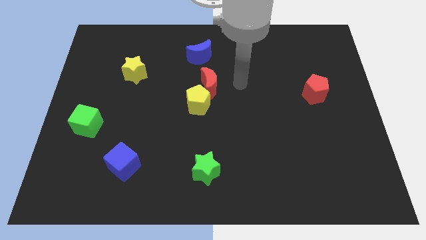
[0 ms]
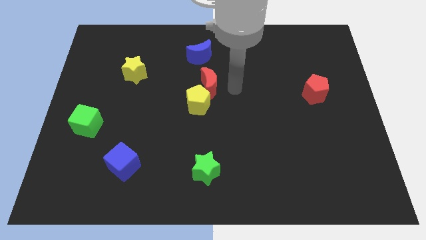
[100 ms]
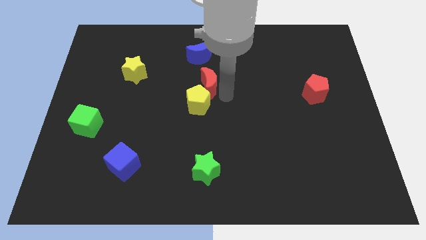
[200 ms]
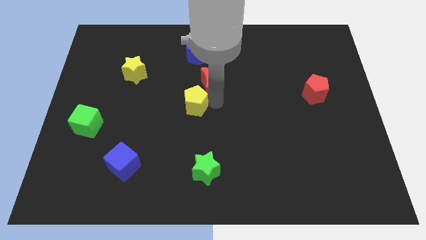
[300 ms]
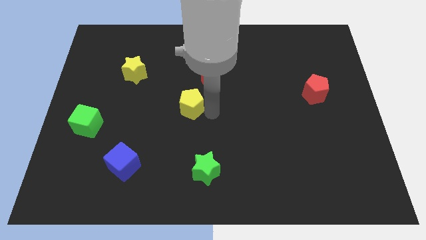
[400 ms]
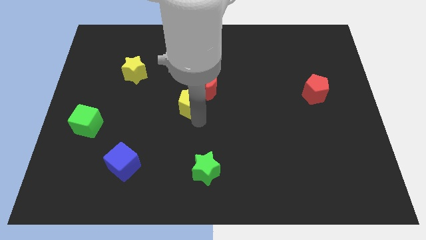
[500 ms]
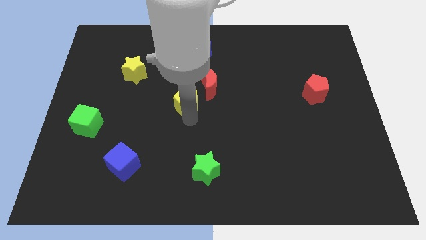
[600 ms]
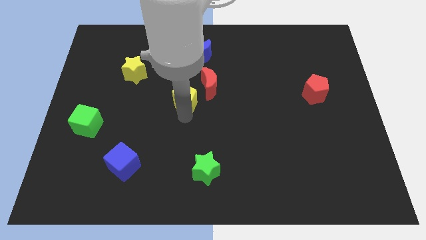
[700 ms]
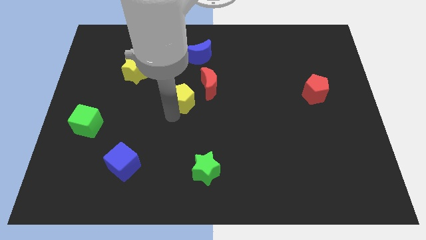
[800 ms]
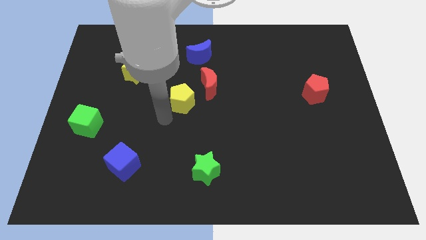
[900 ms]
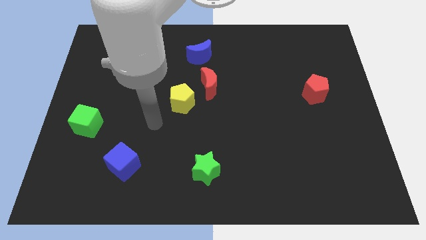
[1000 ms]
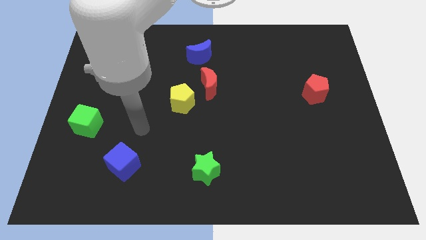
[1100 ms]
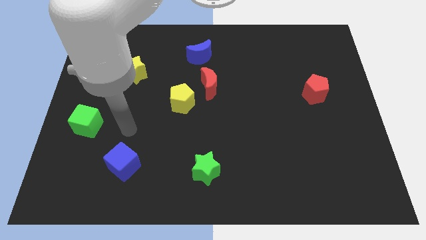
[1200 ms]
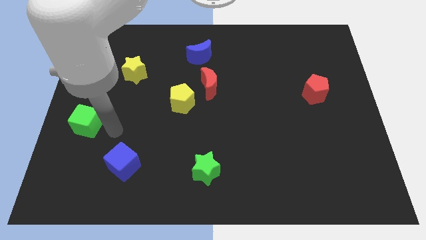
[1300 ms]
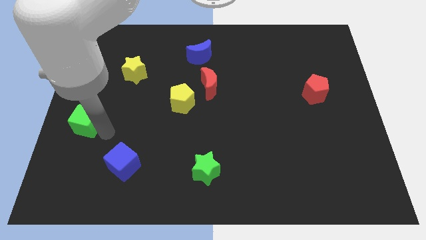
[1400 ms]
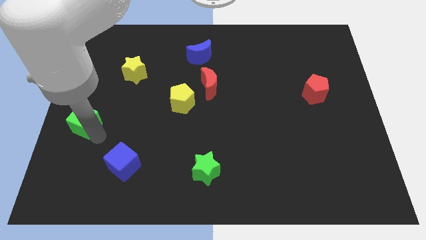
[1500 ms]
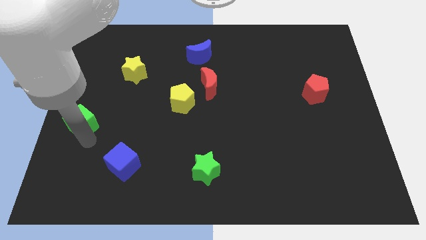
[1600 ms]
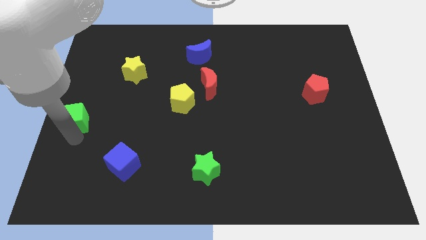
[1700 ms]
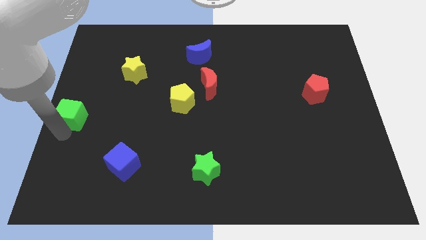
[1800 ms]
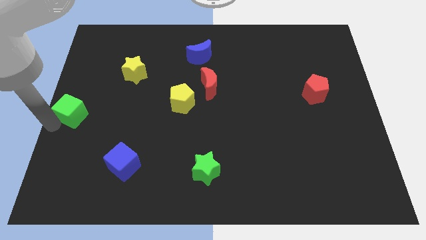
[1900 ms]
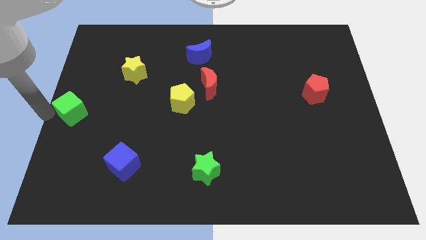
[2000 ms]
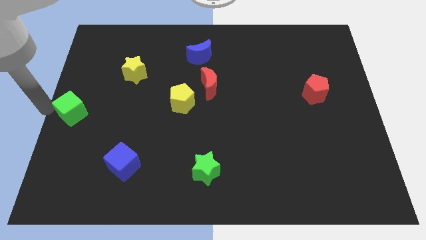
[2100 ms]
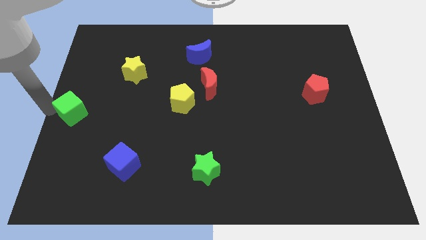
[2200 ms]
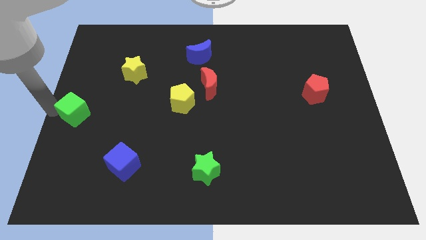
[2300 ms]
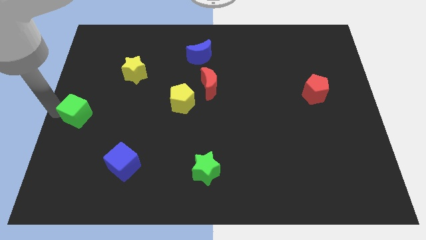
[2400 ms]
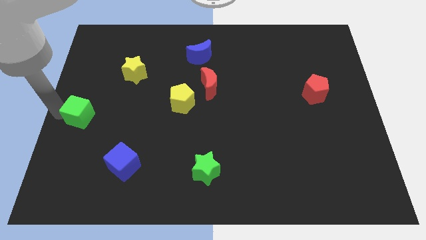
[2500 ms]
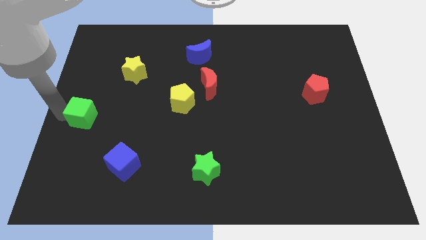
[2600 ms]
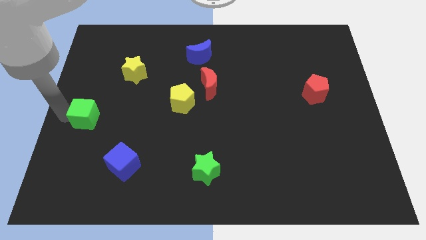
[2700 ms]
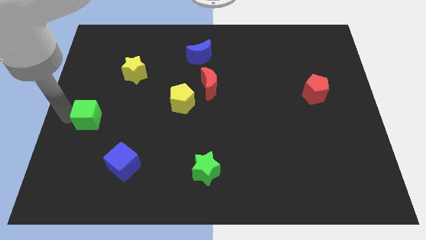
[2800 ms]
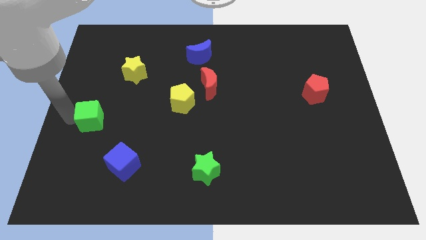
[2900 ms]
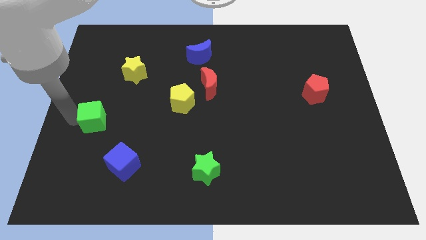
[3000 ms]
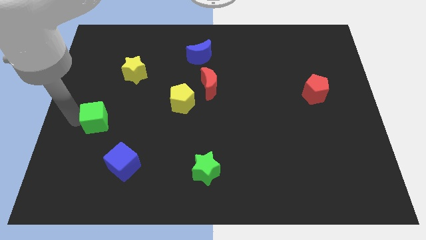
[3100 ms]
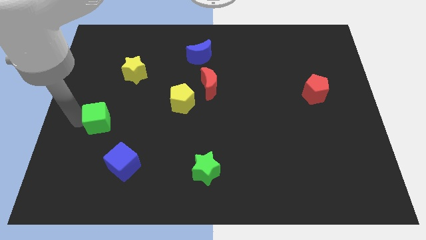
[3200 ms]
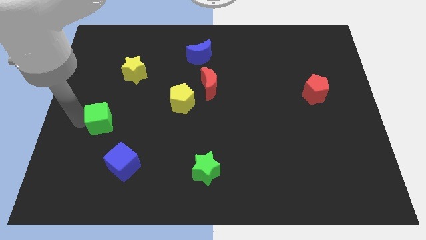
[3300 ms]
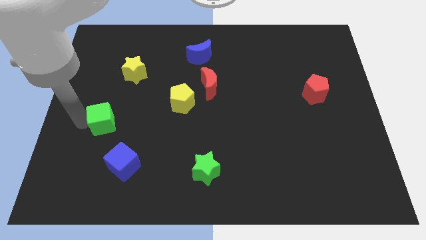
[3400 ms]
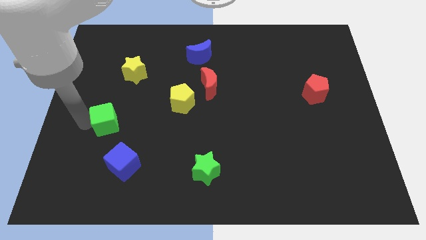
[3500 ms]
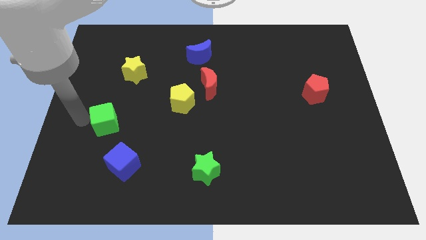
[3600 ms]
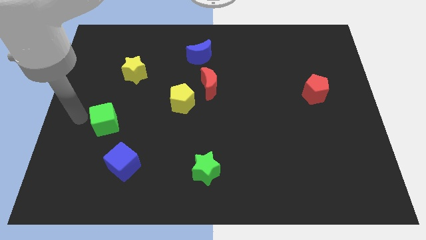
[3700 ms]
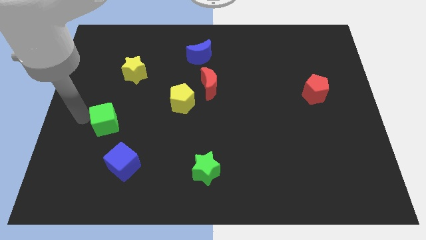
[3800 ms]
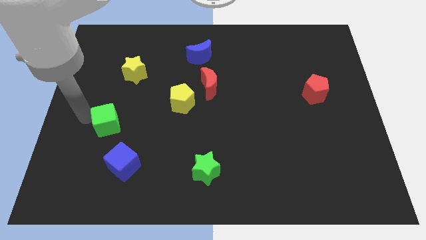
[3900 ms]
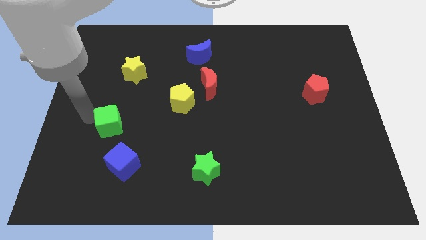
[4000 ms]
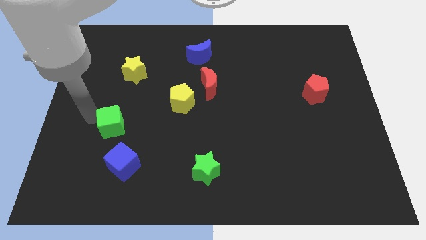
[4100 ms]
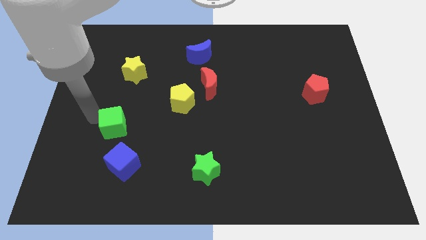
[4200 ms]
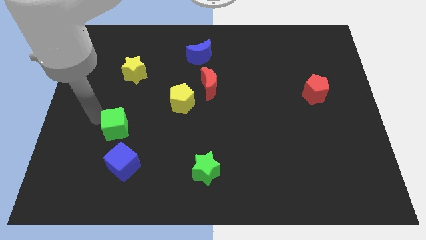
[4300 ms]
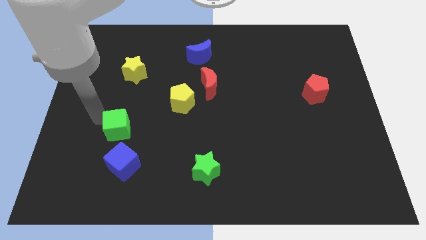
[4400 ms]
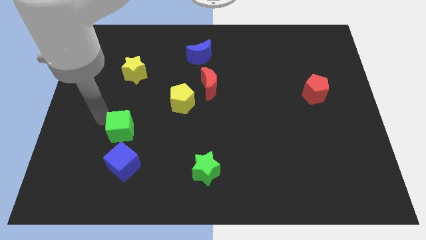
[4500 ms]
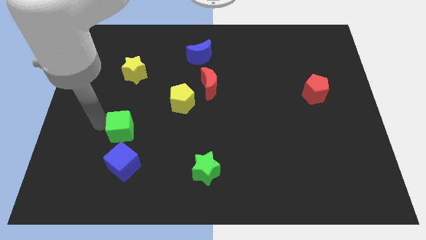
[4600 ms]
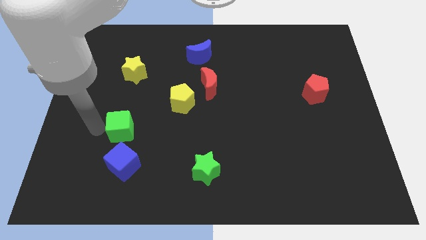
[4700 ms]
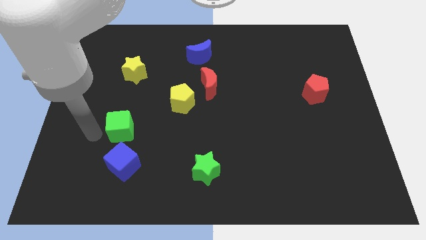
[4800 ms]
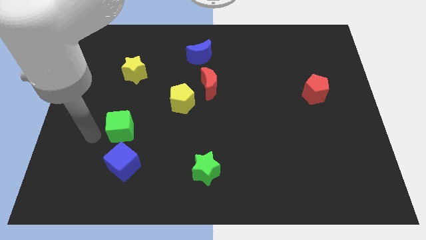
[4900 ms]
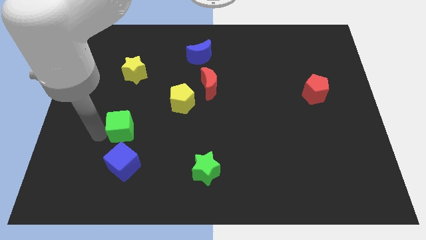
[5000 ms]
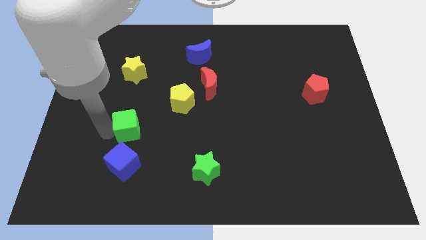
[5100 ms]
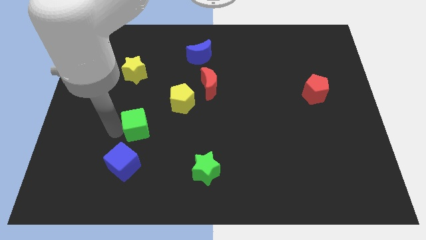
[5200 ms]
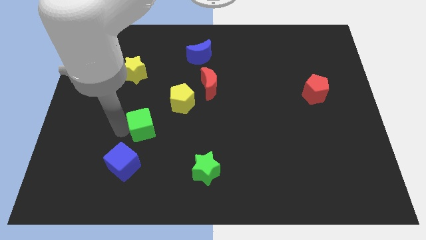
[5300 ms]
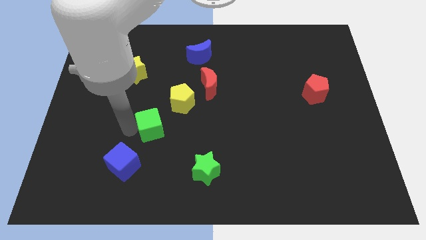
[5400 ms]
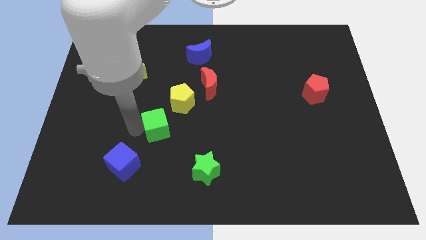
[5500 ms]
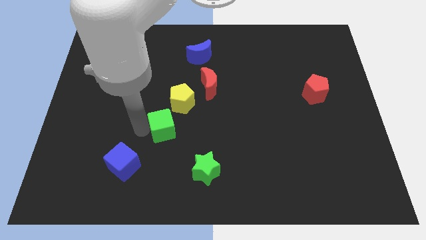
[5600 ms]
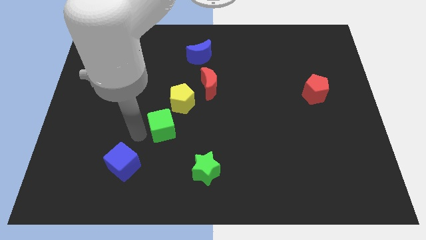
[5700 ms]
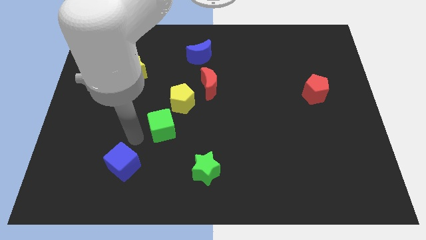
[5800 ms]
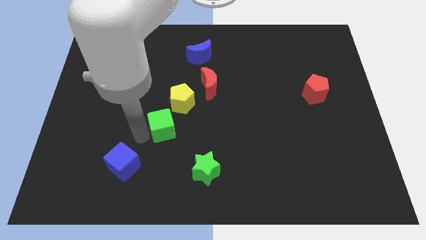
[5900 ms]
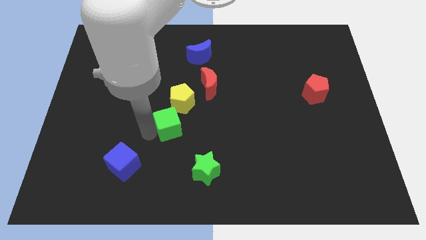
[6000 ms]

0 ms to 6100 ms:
move the green cube to the middle of the board
